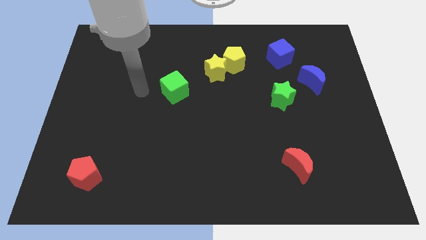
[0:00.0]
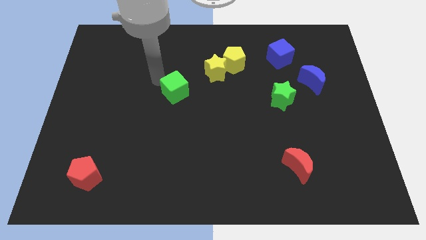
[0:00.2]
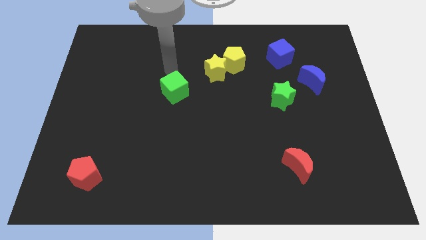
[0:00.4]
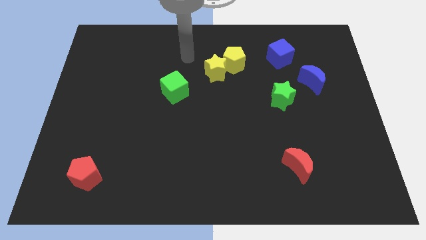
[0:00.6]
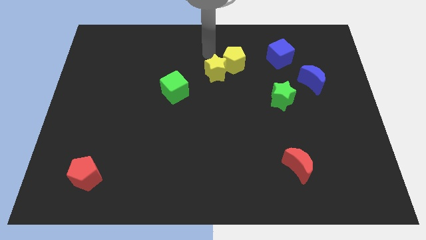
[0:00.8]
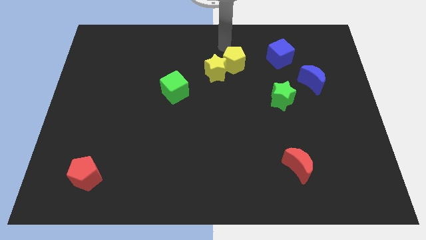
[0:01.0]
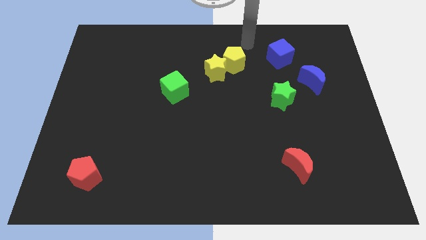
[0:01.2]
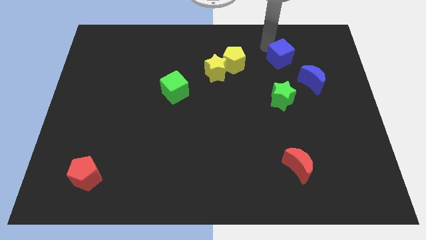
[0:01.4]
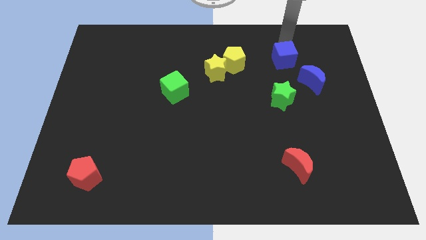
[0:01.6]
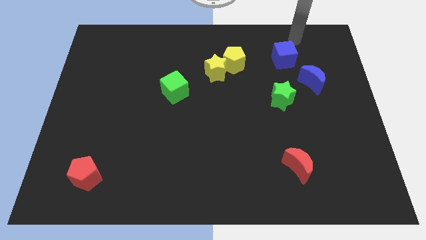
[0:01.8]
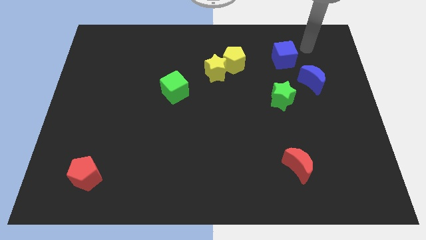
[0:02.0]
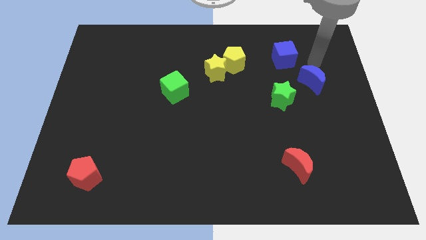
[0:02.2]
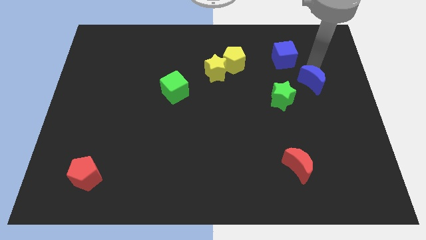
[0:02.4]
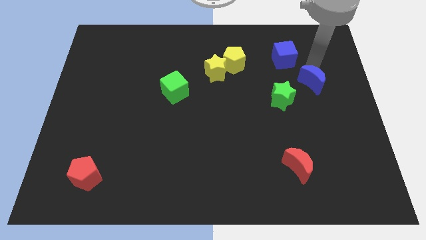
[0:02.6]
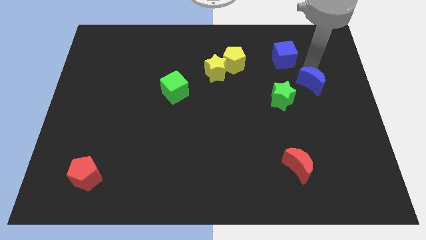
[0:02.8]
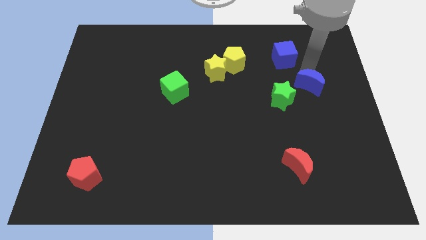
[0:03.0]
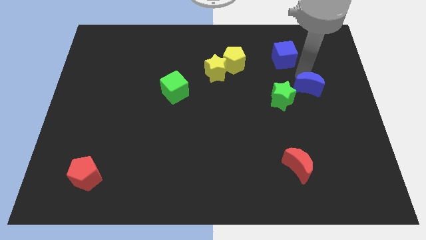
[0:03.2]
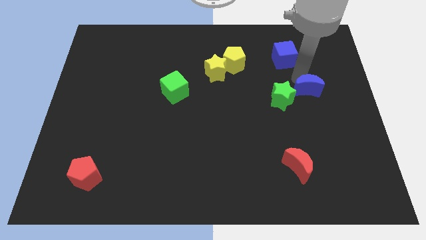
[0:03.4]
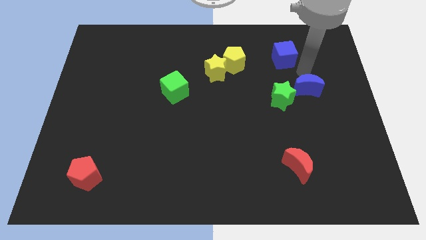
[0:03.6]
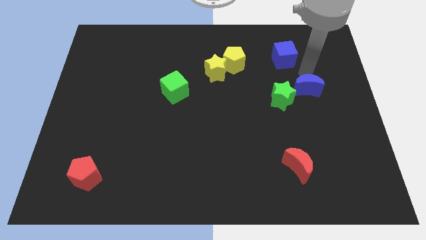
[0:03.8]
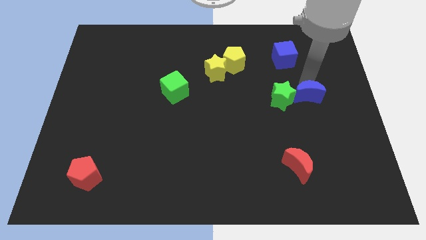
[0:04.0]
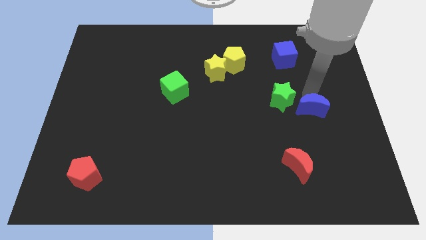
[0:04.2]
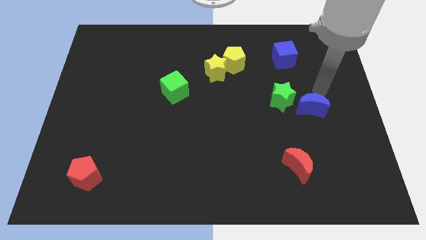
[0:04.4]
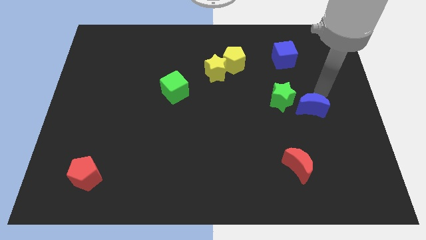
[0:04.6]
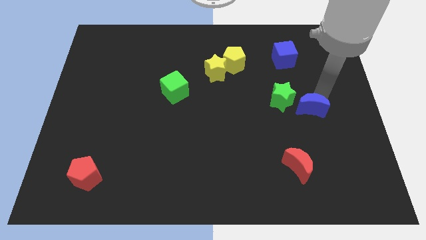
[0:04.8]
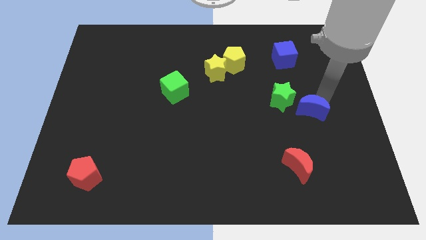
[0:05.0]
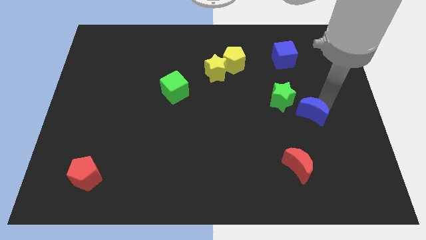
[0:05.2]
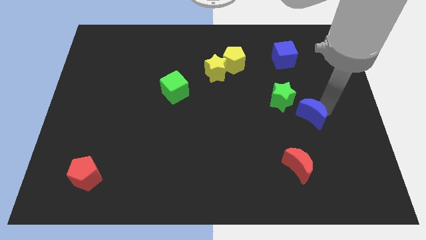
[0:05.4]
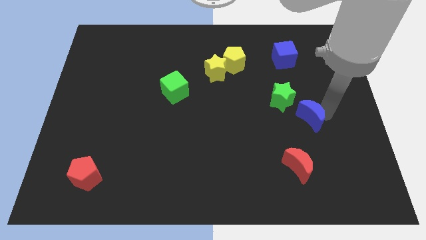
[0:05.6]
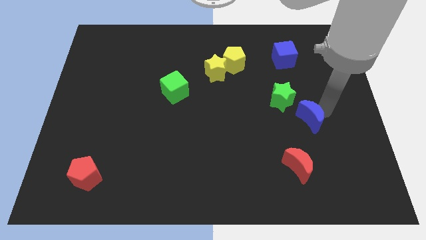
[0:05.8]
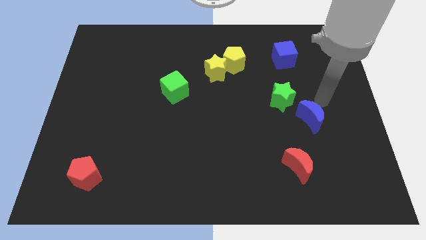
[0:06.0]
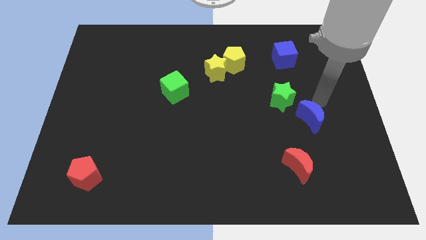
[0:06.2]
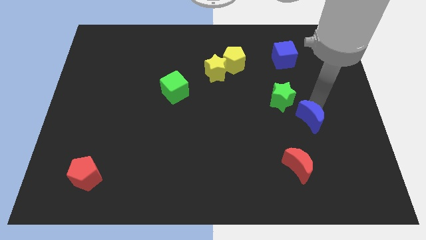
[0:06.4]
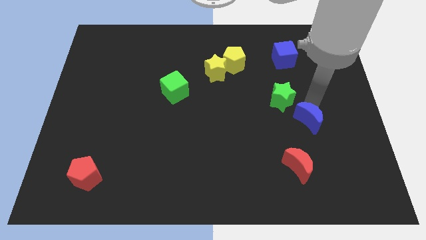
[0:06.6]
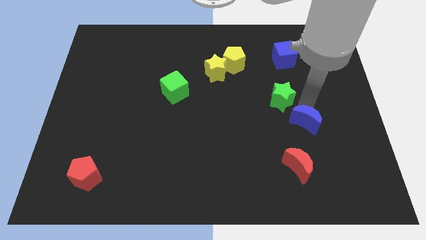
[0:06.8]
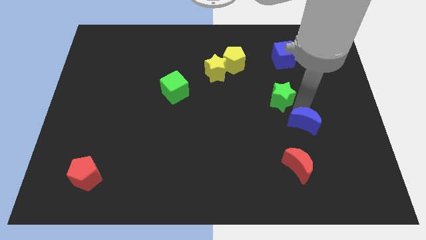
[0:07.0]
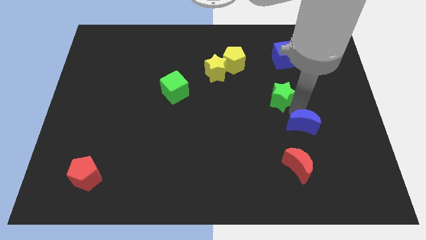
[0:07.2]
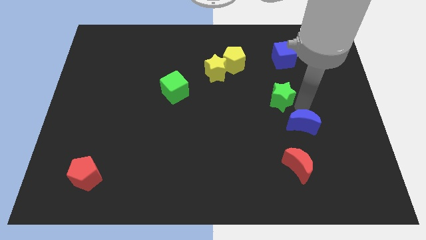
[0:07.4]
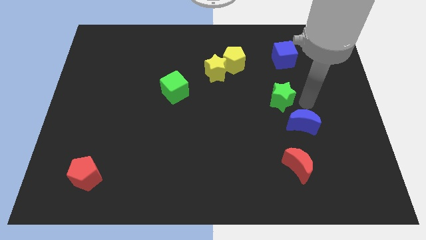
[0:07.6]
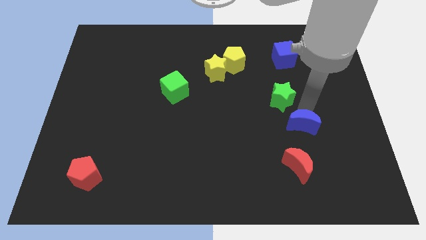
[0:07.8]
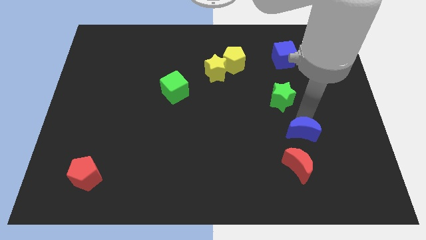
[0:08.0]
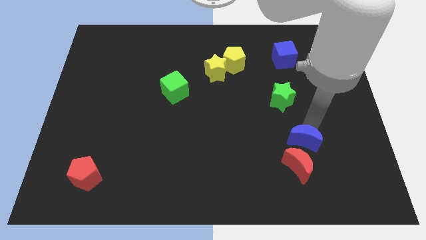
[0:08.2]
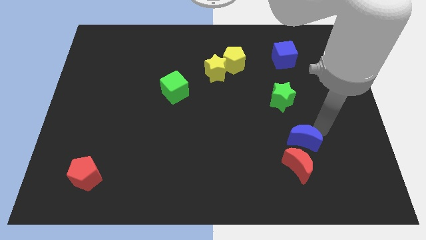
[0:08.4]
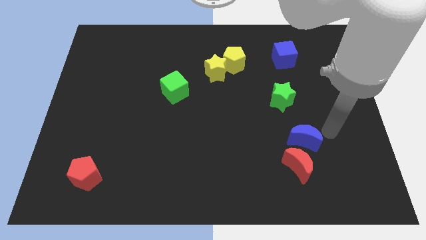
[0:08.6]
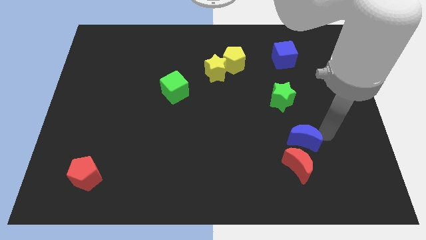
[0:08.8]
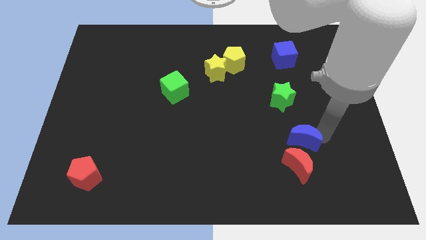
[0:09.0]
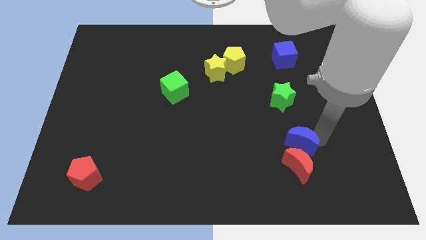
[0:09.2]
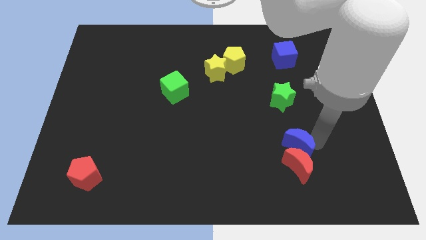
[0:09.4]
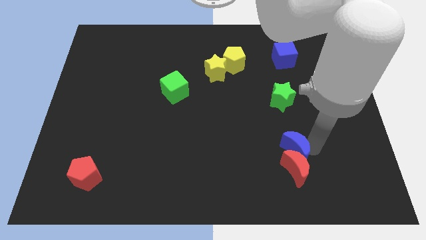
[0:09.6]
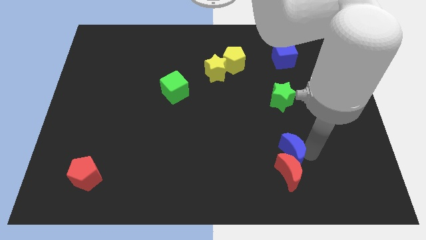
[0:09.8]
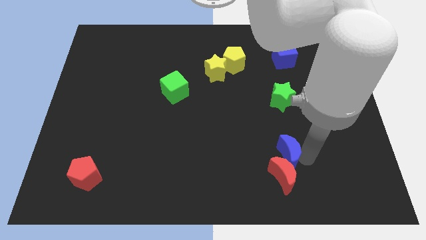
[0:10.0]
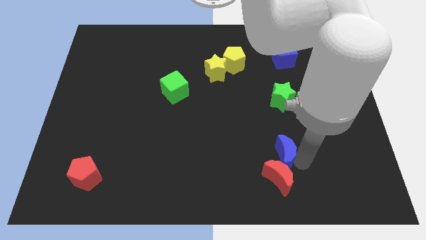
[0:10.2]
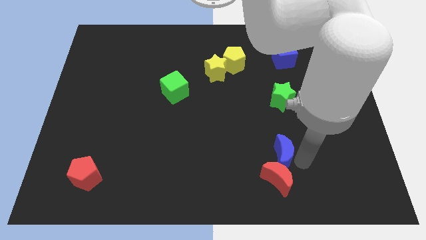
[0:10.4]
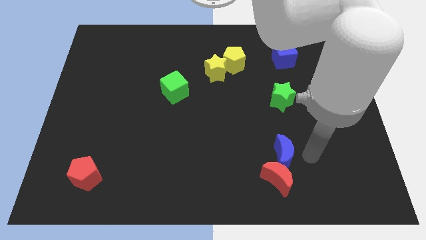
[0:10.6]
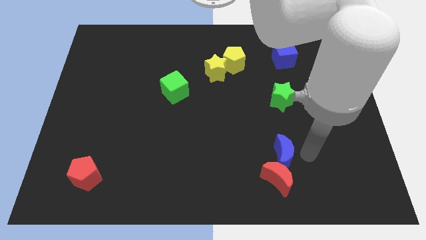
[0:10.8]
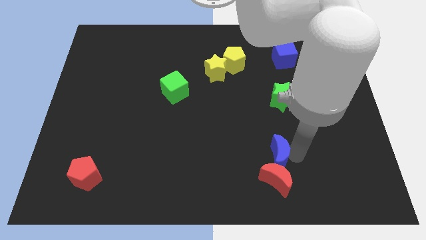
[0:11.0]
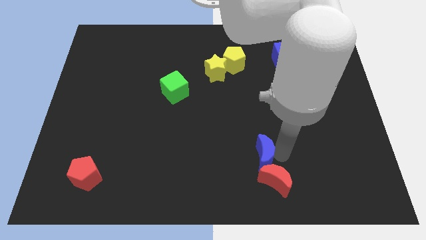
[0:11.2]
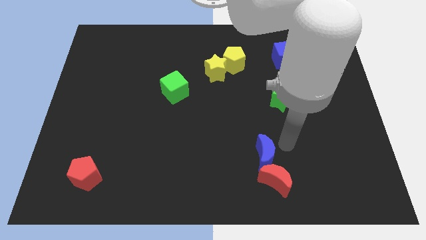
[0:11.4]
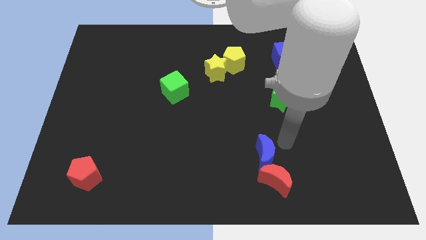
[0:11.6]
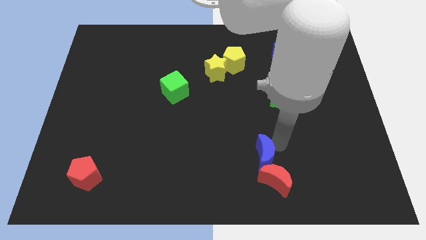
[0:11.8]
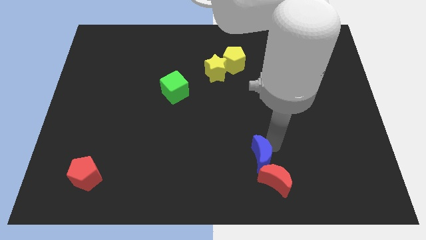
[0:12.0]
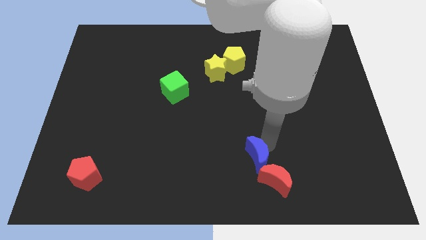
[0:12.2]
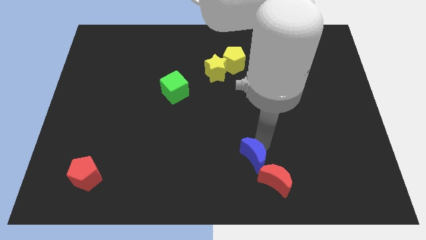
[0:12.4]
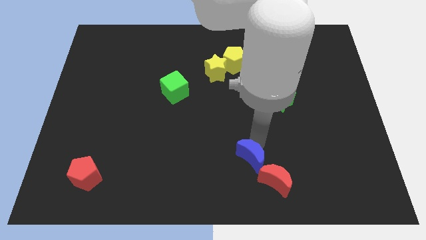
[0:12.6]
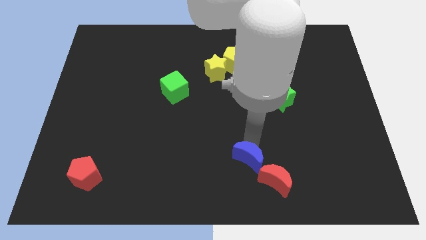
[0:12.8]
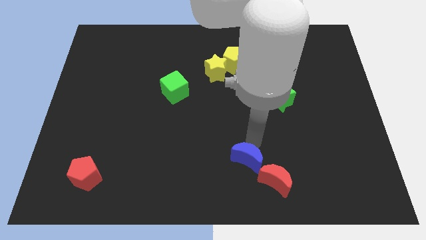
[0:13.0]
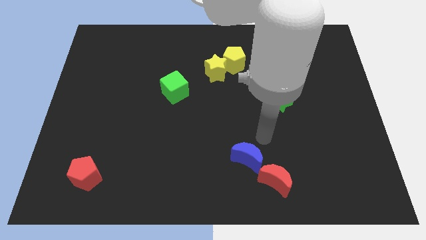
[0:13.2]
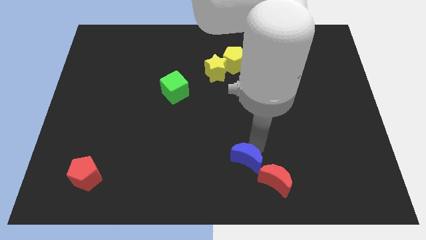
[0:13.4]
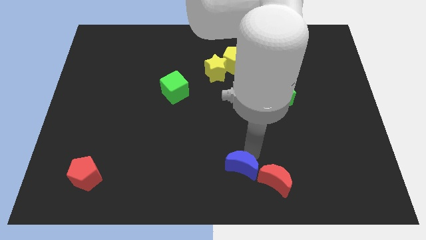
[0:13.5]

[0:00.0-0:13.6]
put the blue moon to the bottom
